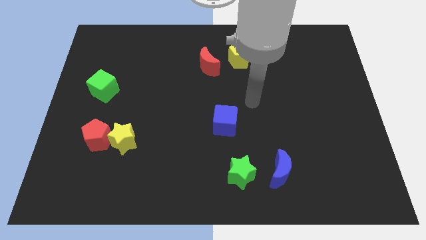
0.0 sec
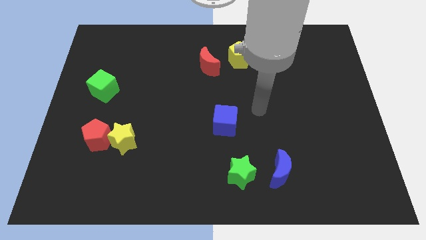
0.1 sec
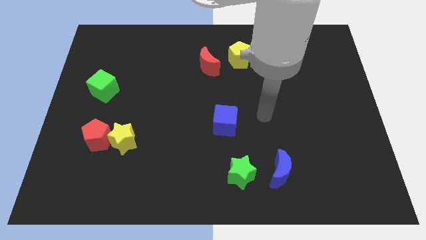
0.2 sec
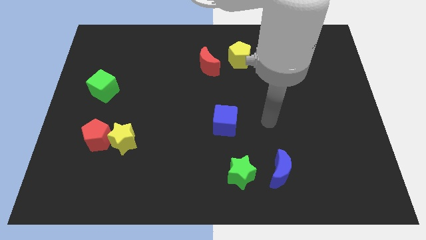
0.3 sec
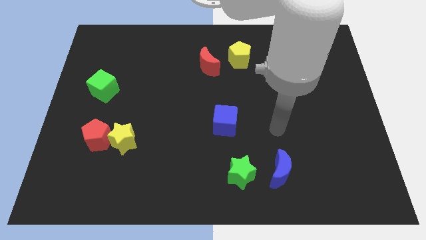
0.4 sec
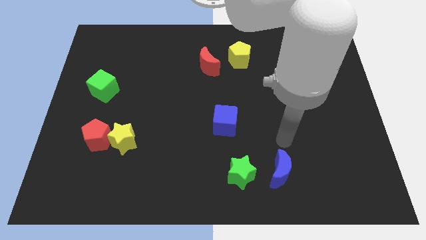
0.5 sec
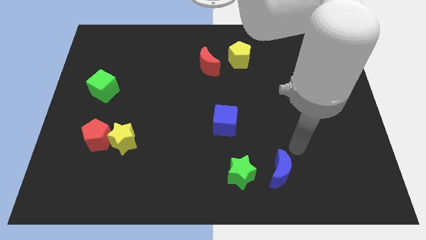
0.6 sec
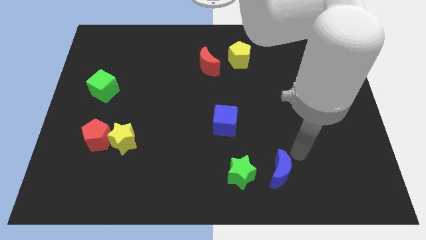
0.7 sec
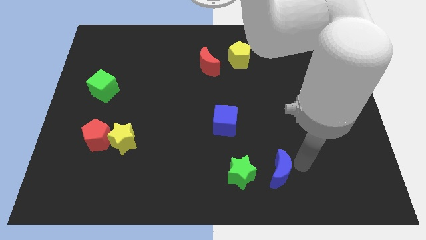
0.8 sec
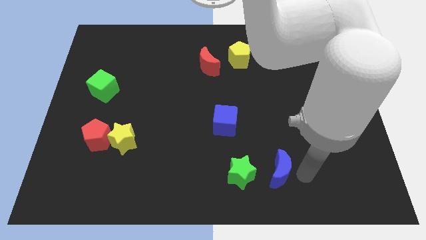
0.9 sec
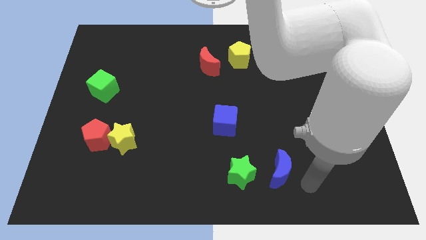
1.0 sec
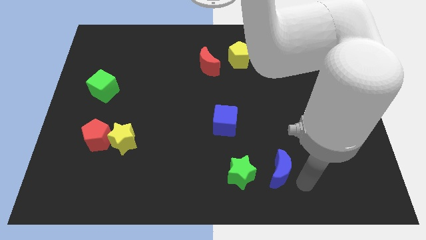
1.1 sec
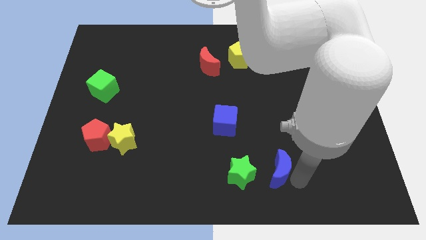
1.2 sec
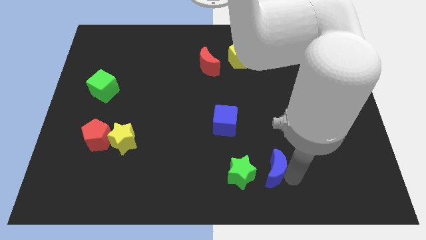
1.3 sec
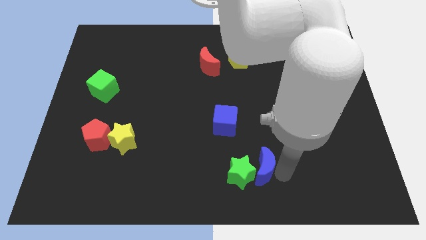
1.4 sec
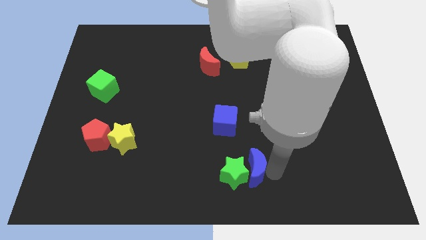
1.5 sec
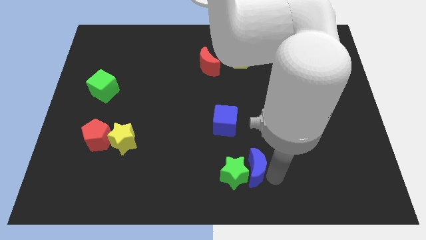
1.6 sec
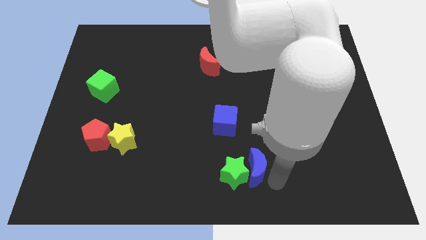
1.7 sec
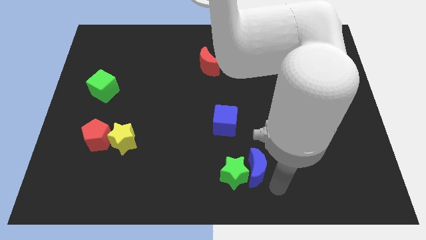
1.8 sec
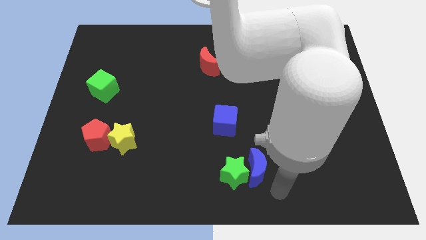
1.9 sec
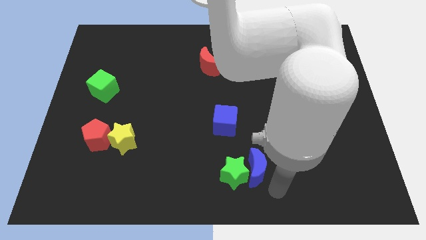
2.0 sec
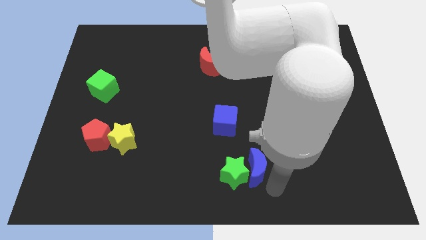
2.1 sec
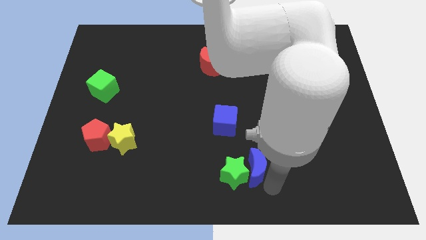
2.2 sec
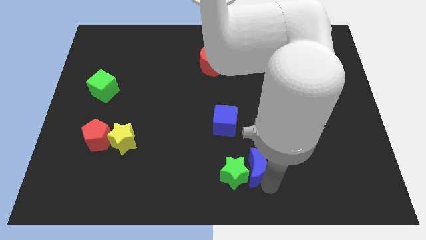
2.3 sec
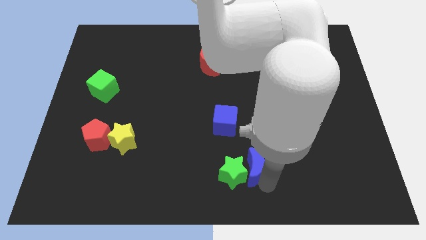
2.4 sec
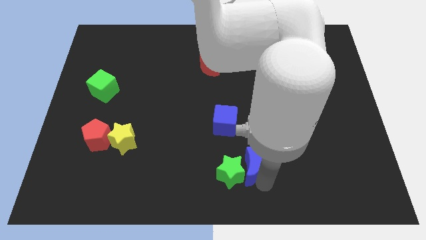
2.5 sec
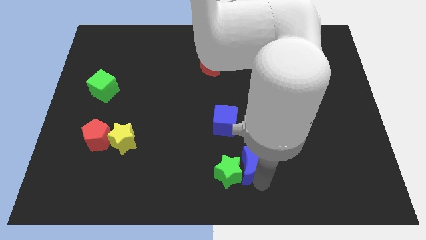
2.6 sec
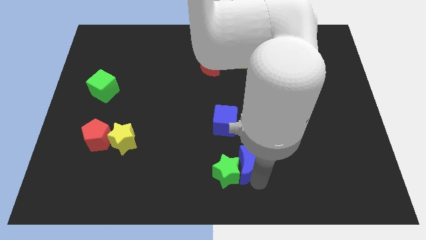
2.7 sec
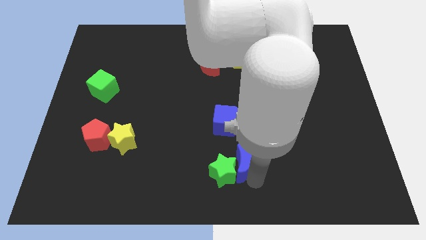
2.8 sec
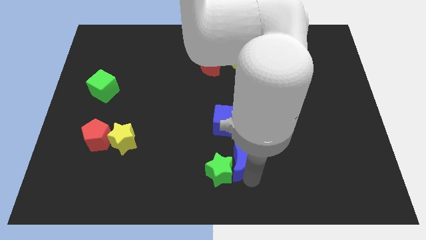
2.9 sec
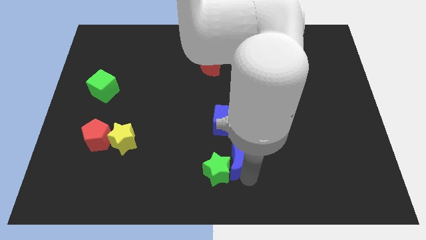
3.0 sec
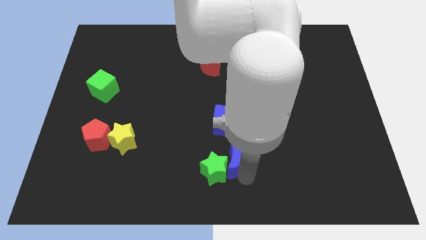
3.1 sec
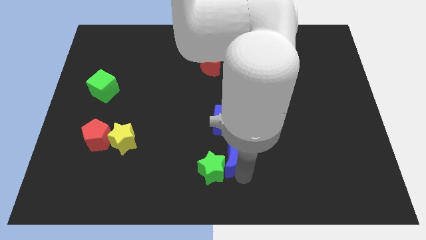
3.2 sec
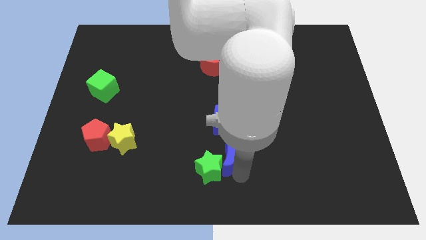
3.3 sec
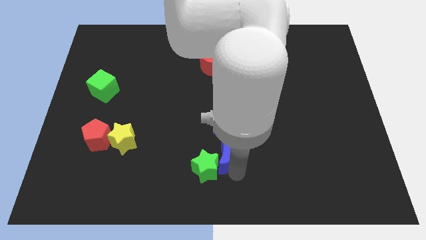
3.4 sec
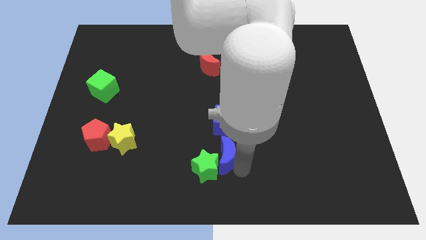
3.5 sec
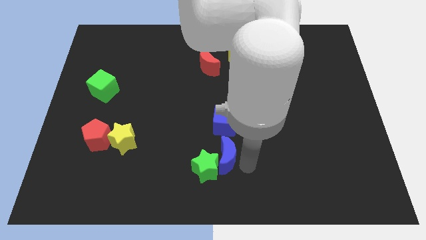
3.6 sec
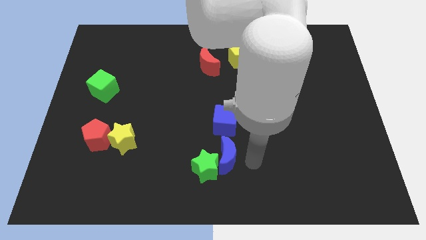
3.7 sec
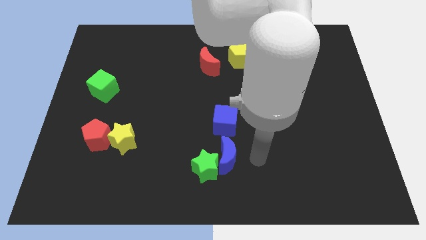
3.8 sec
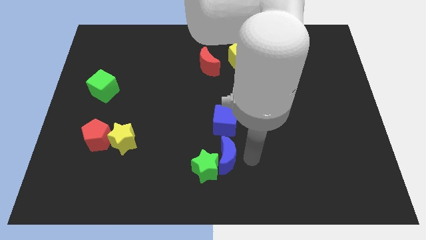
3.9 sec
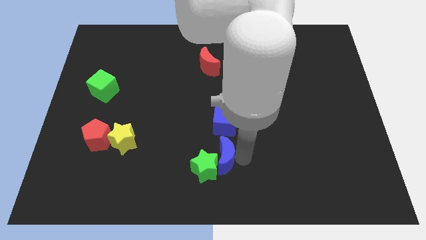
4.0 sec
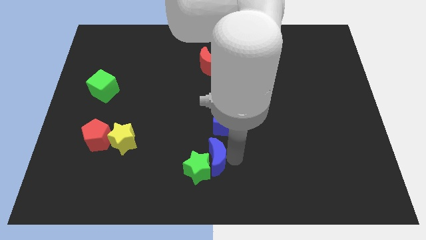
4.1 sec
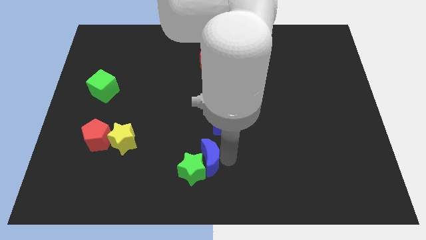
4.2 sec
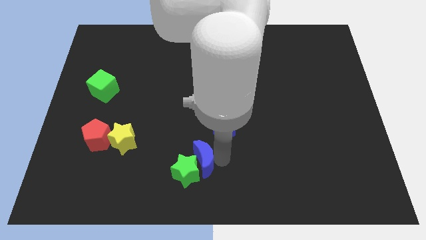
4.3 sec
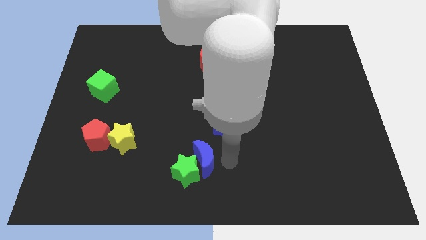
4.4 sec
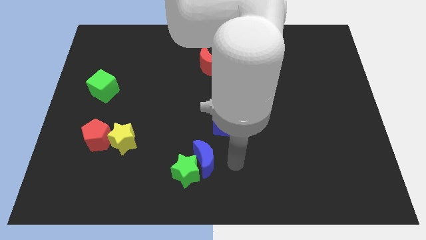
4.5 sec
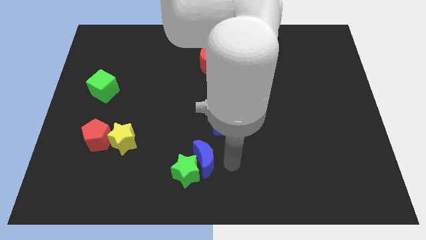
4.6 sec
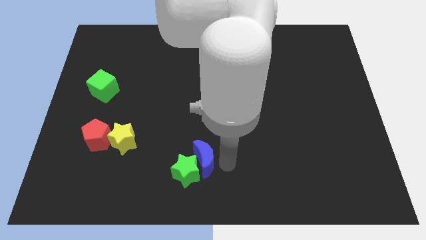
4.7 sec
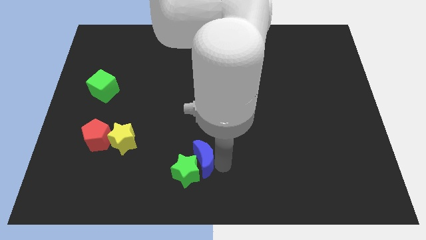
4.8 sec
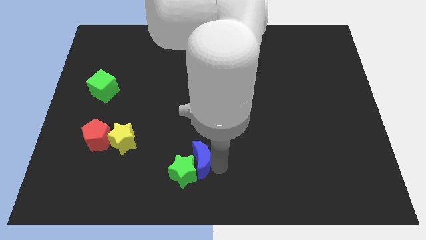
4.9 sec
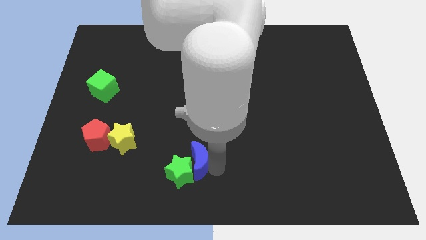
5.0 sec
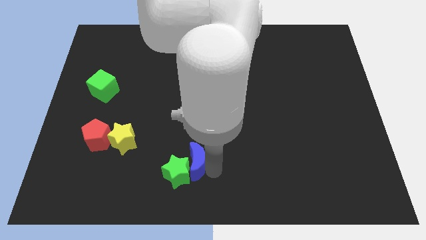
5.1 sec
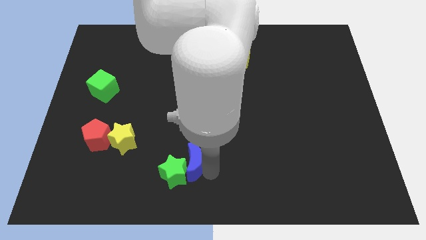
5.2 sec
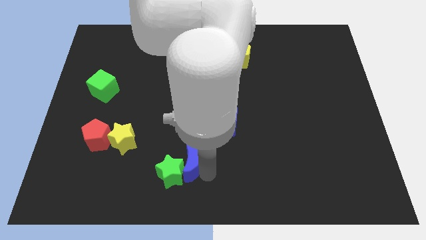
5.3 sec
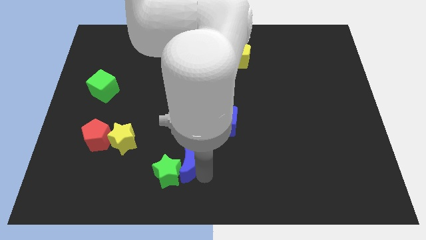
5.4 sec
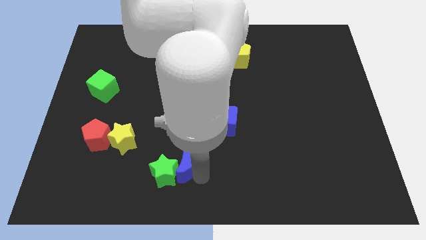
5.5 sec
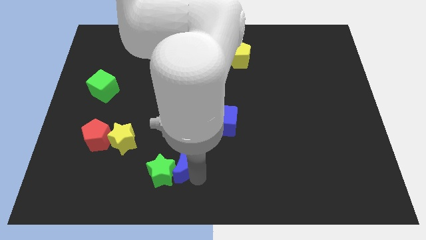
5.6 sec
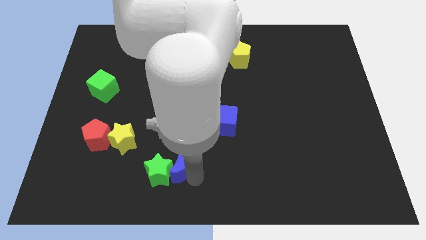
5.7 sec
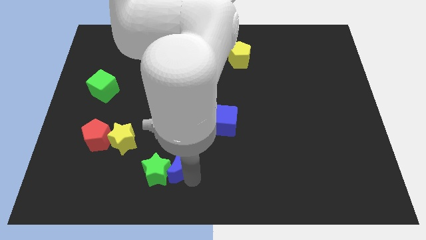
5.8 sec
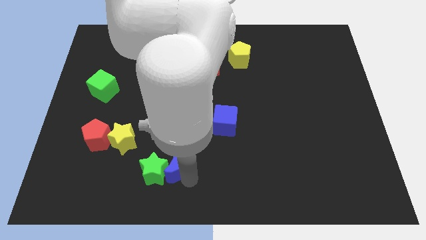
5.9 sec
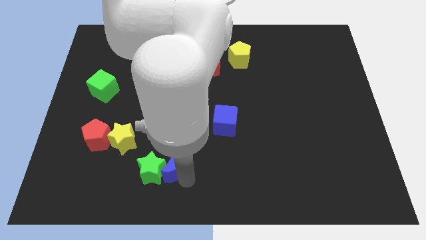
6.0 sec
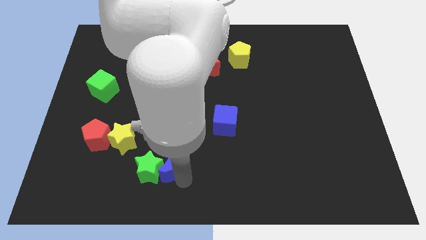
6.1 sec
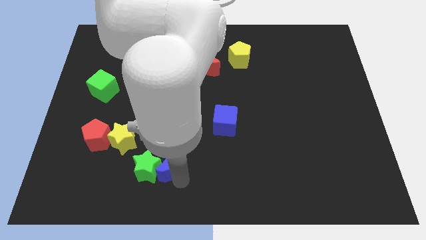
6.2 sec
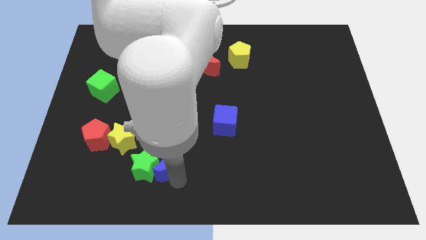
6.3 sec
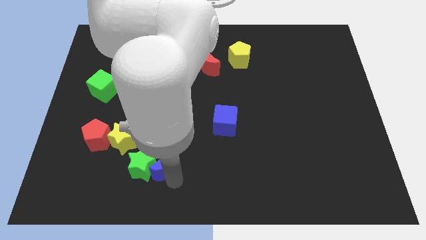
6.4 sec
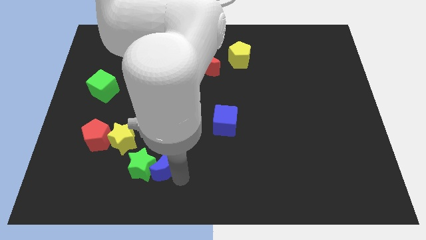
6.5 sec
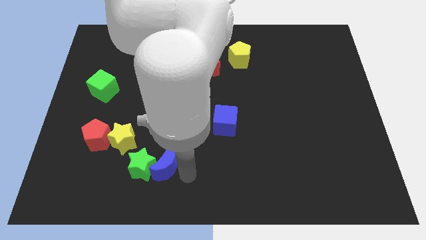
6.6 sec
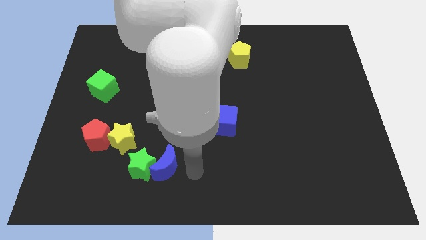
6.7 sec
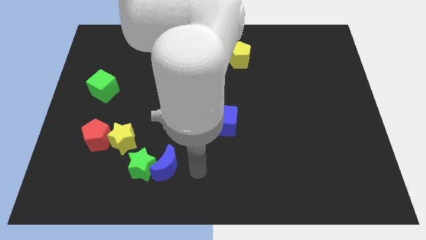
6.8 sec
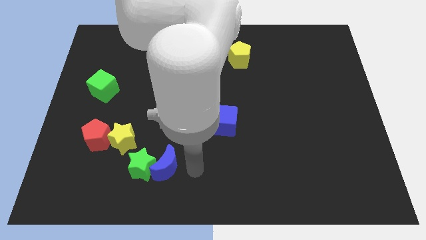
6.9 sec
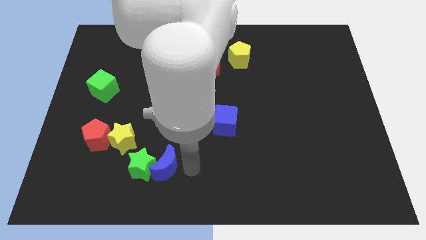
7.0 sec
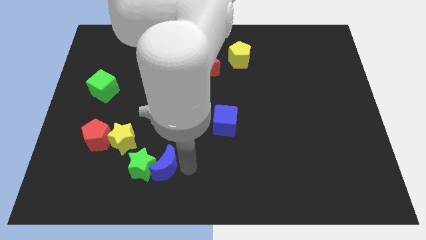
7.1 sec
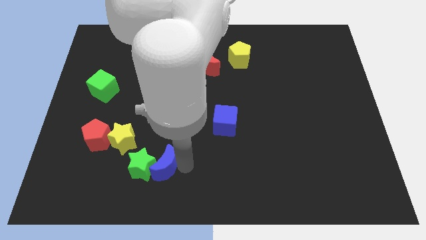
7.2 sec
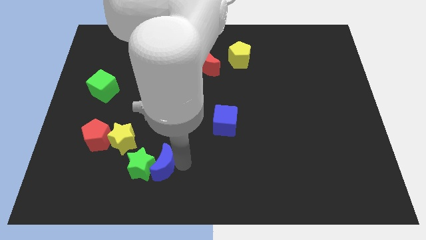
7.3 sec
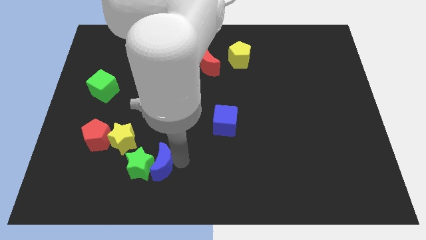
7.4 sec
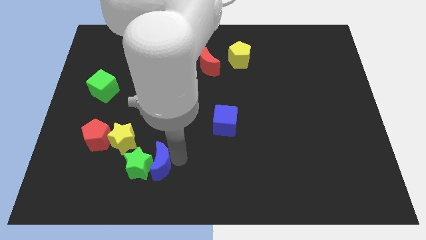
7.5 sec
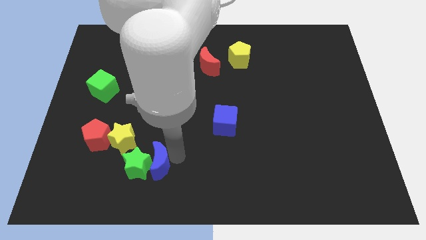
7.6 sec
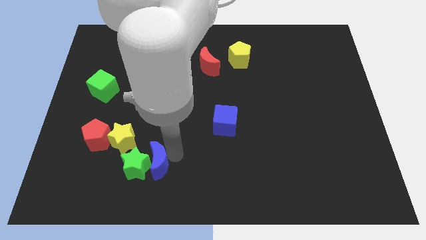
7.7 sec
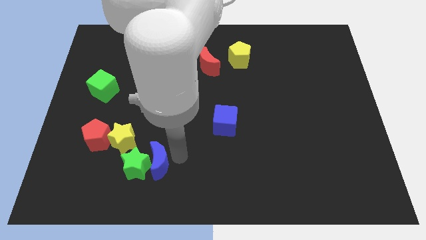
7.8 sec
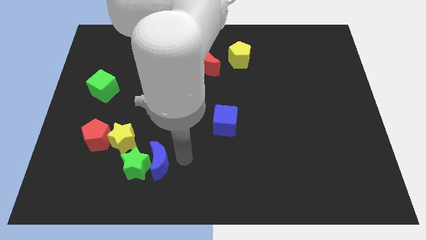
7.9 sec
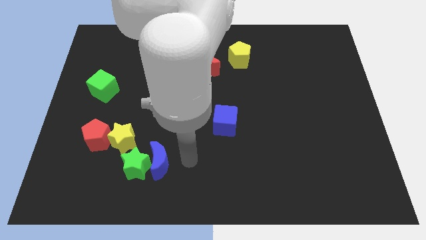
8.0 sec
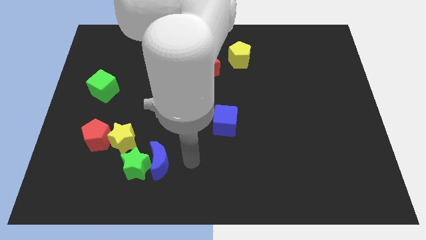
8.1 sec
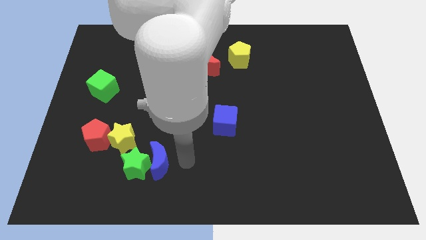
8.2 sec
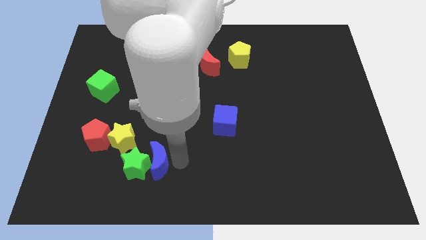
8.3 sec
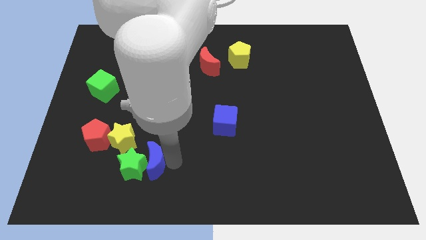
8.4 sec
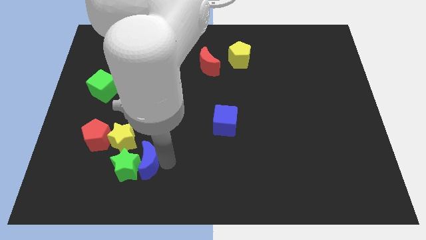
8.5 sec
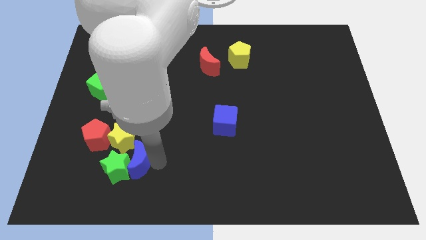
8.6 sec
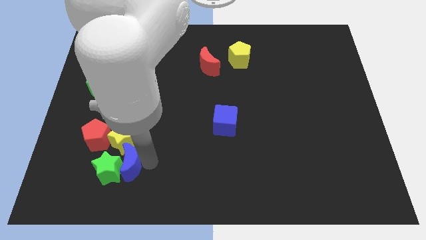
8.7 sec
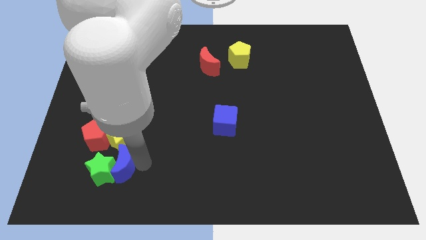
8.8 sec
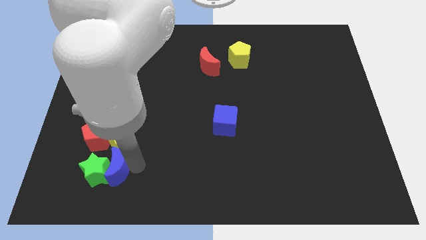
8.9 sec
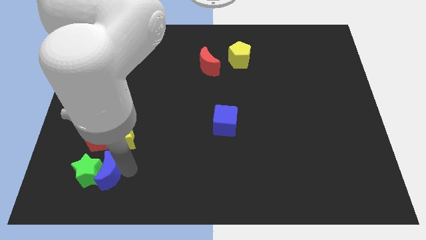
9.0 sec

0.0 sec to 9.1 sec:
put the blue moon diagonally down and to the left of the yellow star
